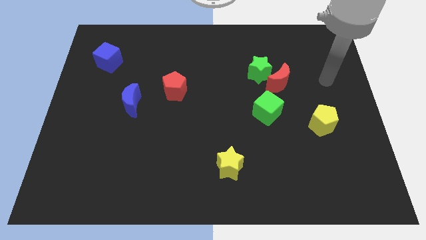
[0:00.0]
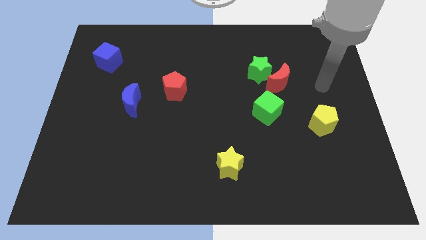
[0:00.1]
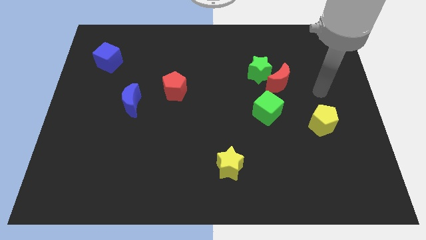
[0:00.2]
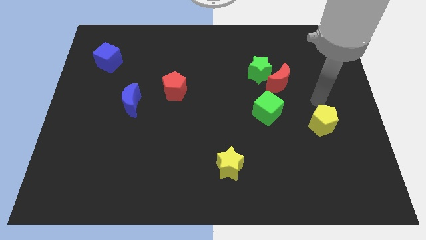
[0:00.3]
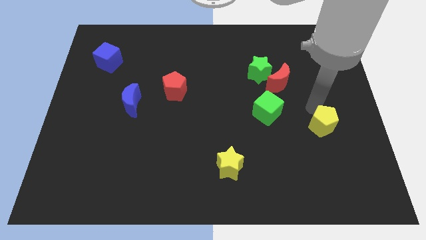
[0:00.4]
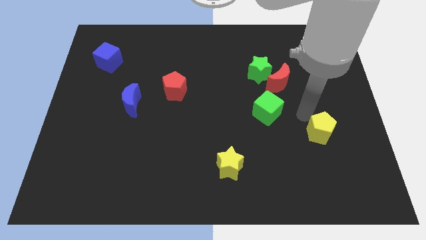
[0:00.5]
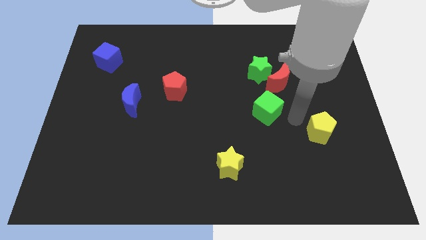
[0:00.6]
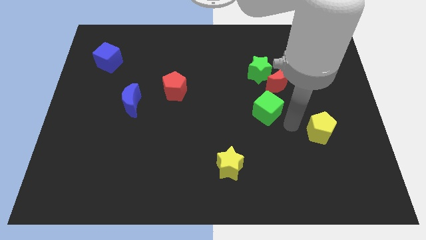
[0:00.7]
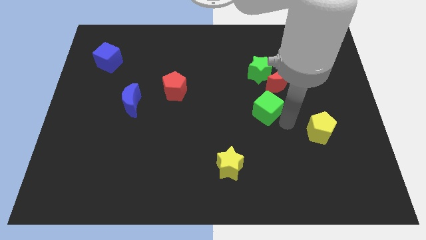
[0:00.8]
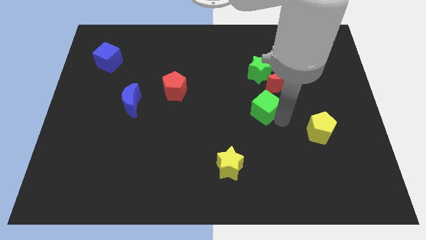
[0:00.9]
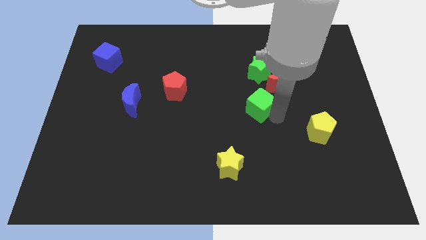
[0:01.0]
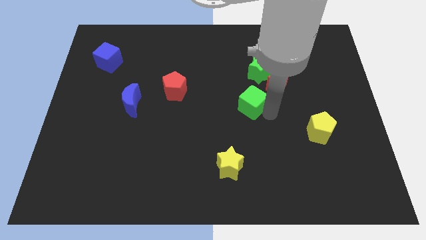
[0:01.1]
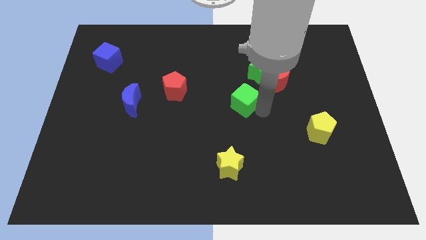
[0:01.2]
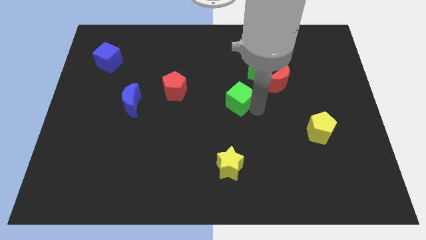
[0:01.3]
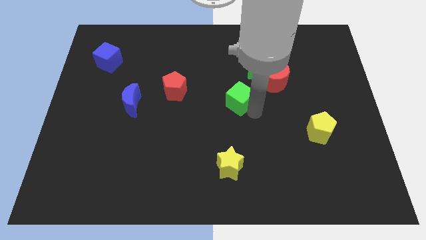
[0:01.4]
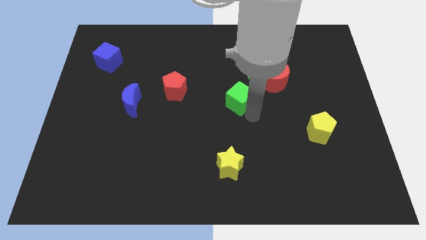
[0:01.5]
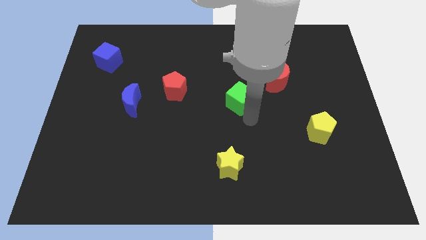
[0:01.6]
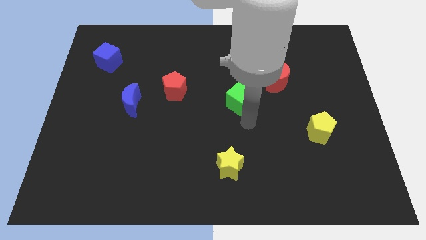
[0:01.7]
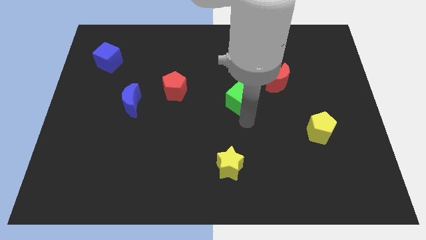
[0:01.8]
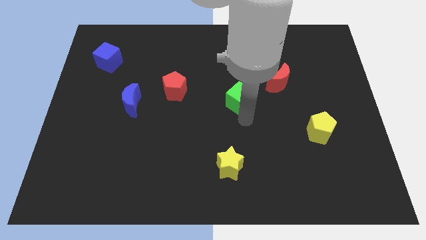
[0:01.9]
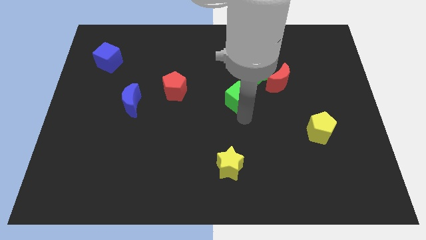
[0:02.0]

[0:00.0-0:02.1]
slightly slide the green cube diagonally upwards and left

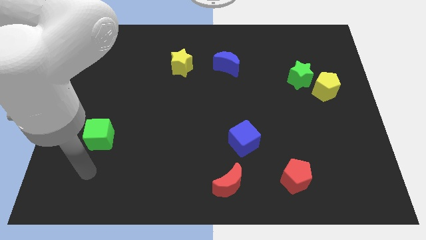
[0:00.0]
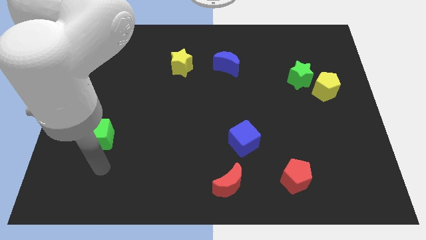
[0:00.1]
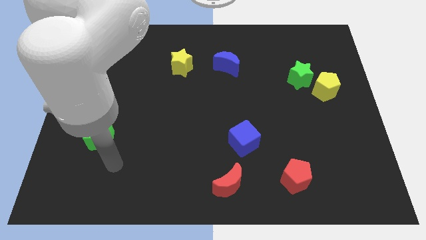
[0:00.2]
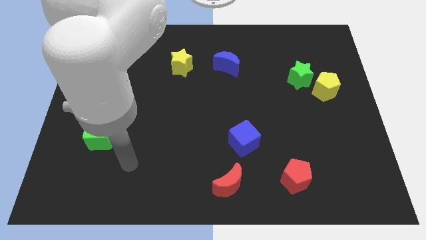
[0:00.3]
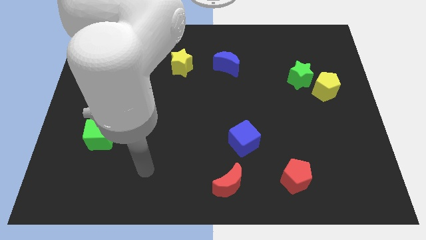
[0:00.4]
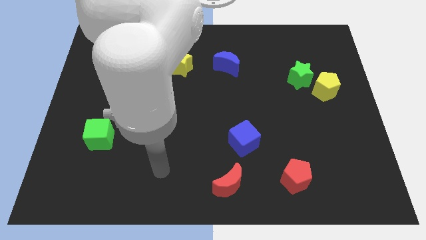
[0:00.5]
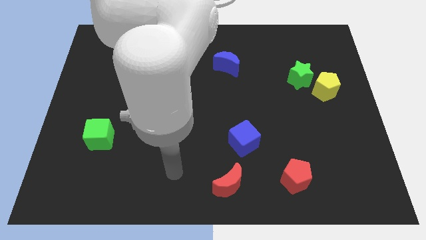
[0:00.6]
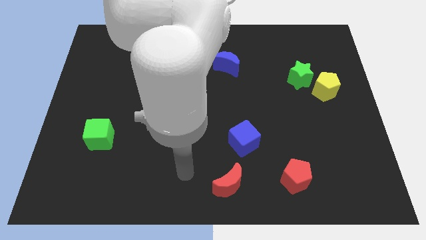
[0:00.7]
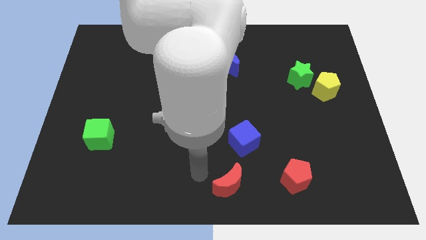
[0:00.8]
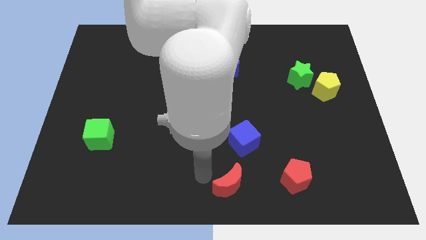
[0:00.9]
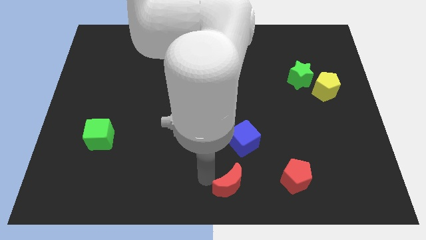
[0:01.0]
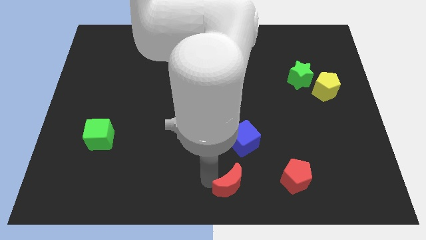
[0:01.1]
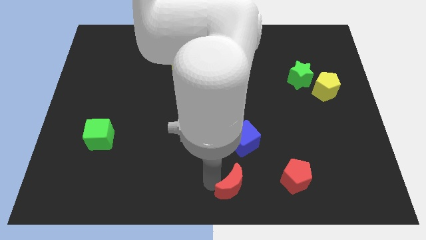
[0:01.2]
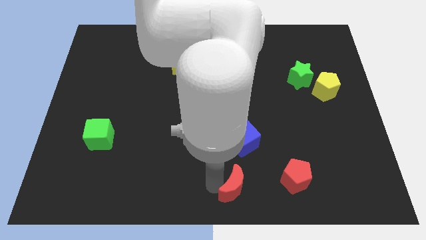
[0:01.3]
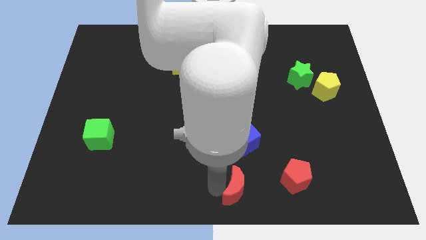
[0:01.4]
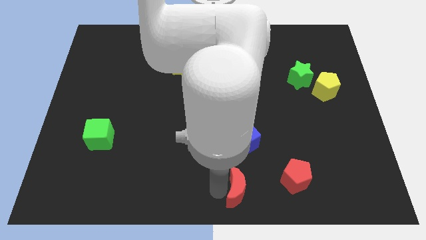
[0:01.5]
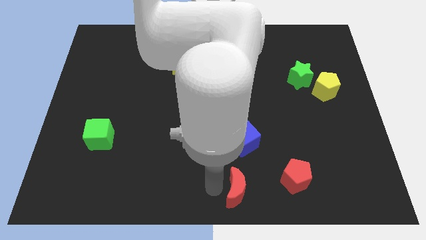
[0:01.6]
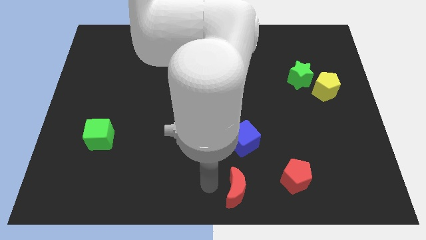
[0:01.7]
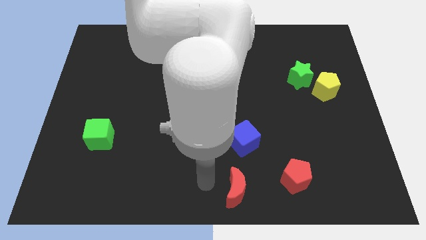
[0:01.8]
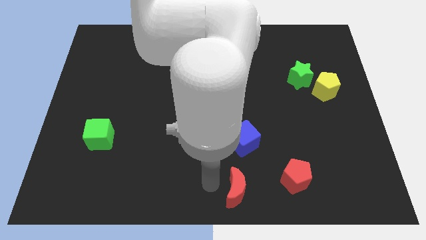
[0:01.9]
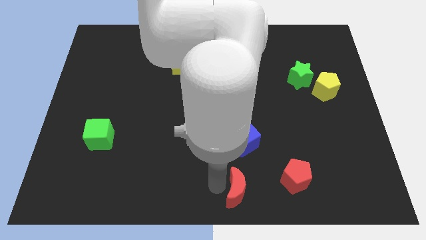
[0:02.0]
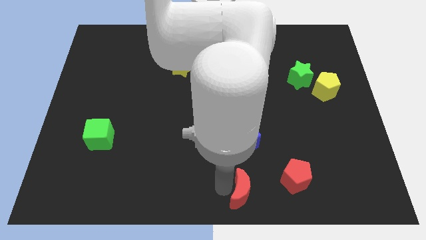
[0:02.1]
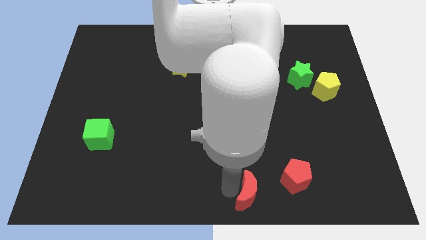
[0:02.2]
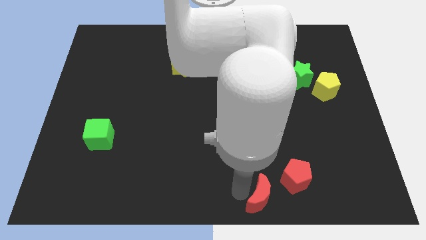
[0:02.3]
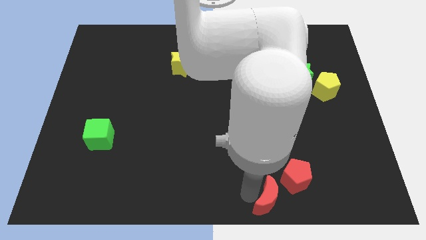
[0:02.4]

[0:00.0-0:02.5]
slightly move the red moon to the right

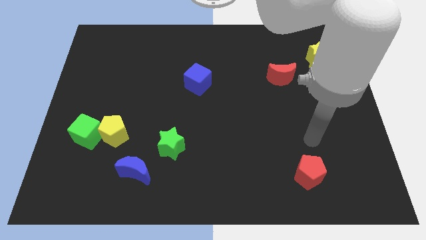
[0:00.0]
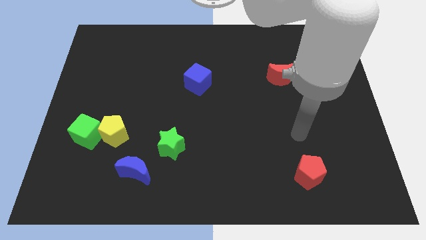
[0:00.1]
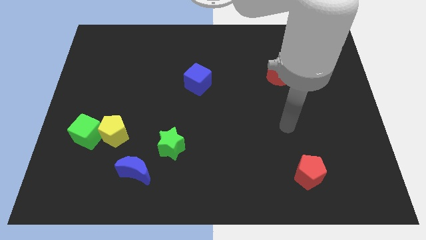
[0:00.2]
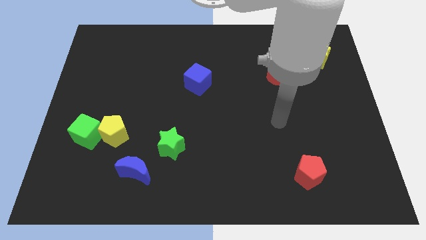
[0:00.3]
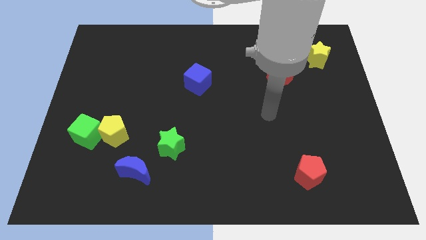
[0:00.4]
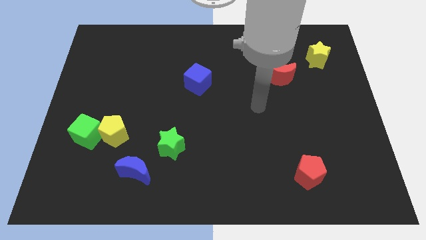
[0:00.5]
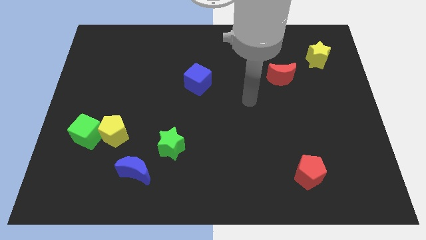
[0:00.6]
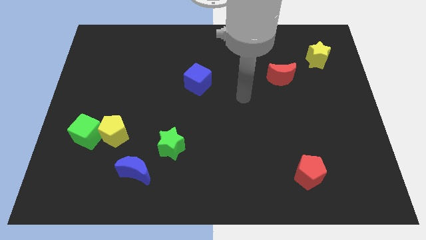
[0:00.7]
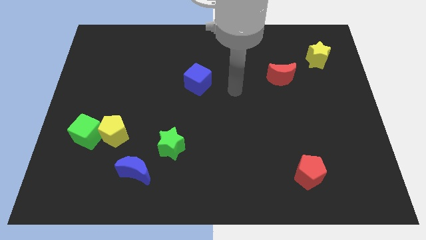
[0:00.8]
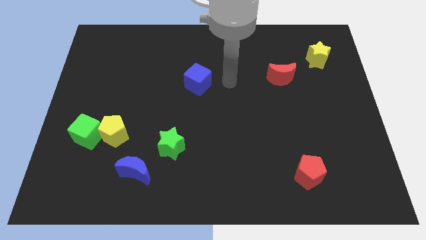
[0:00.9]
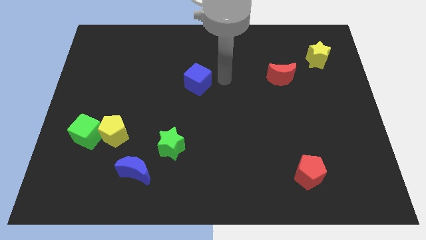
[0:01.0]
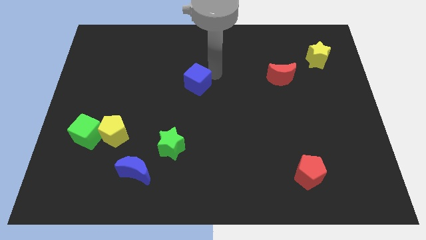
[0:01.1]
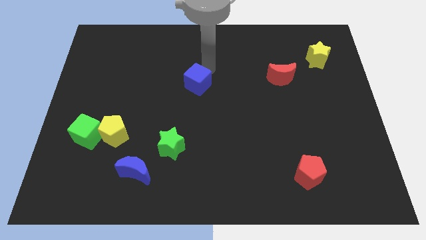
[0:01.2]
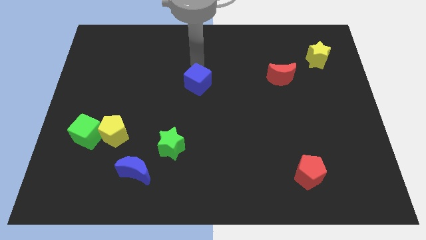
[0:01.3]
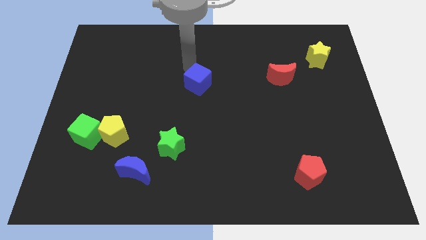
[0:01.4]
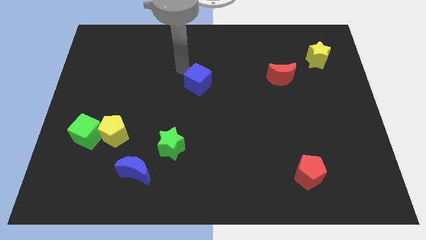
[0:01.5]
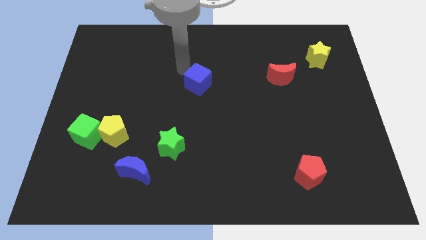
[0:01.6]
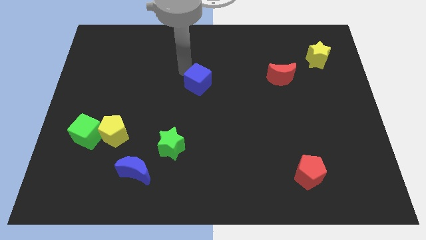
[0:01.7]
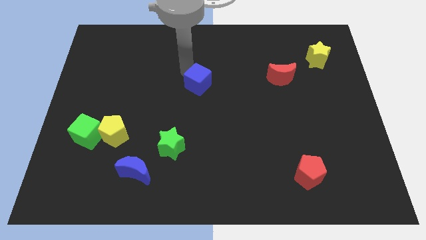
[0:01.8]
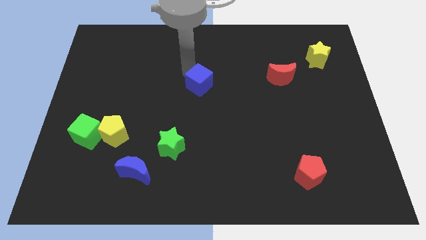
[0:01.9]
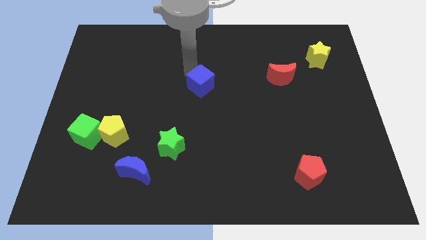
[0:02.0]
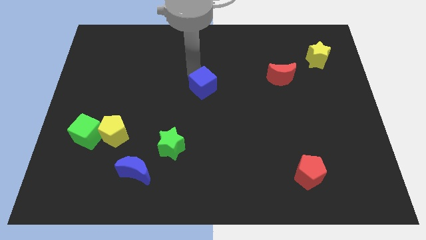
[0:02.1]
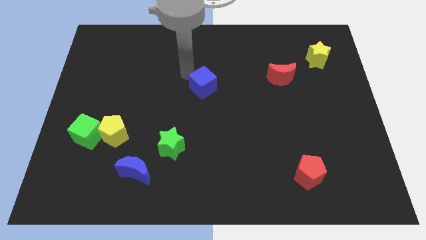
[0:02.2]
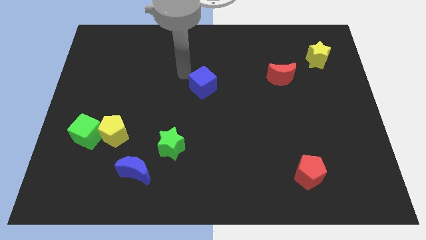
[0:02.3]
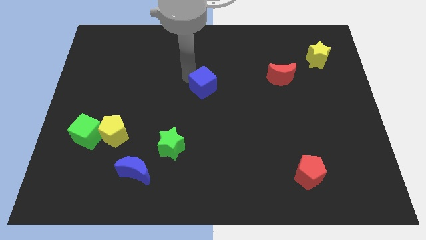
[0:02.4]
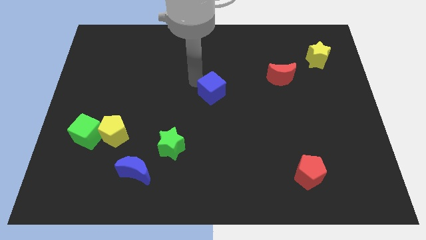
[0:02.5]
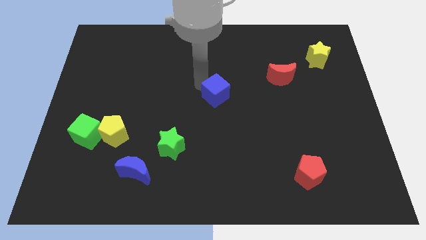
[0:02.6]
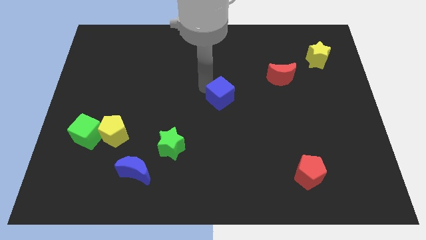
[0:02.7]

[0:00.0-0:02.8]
slightly move the blue cube down and right

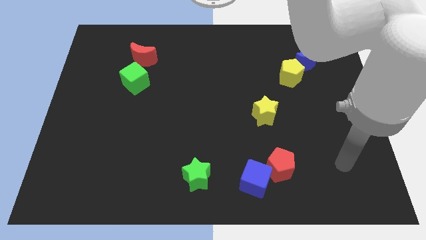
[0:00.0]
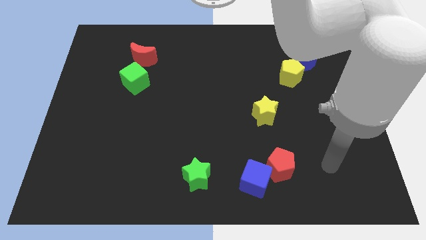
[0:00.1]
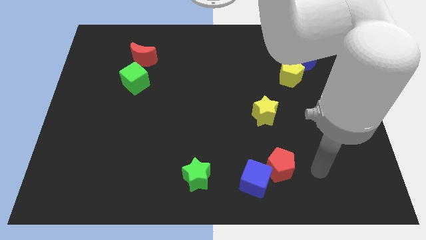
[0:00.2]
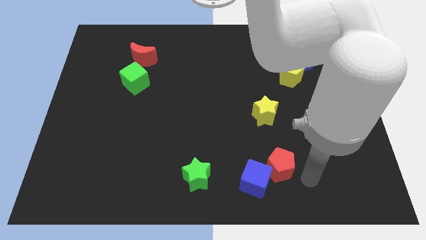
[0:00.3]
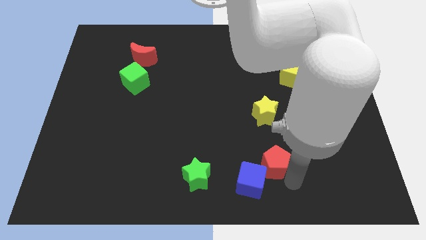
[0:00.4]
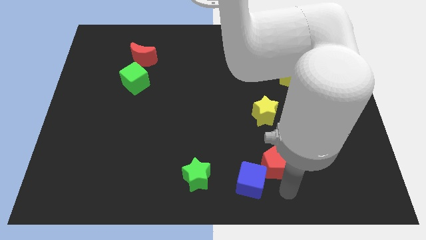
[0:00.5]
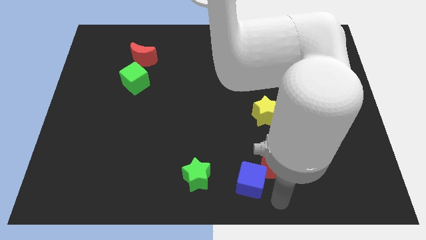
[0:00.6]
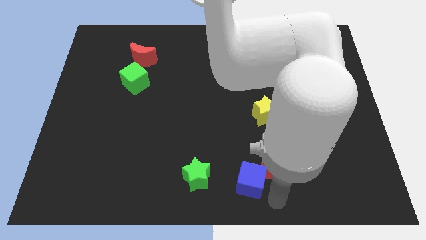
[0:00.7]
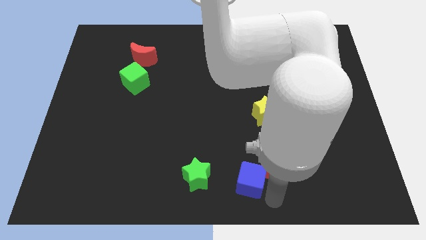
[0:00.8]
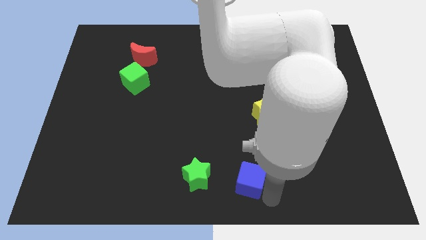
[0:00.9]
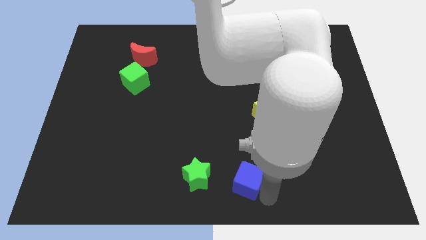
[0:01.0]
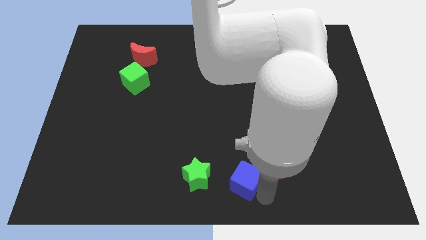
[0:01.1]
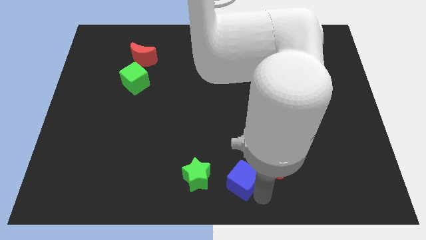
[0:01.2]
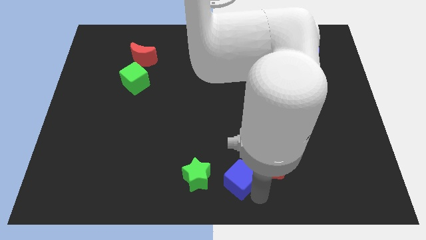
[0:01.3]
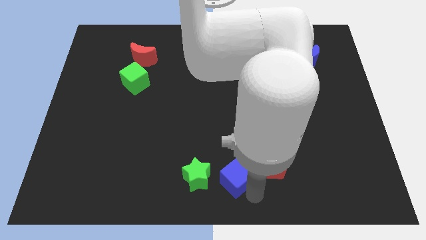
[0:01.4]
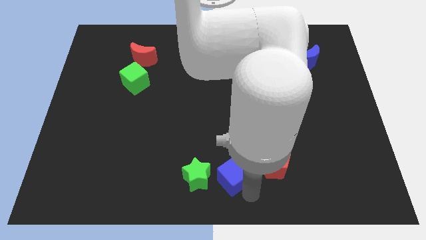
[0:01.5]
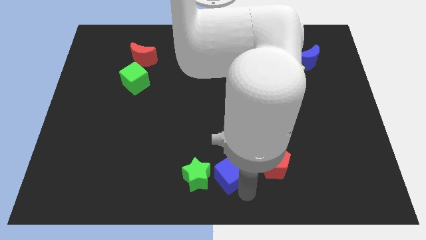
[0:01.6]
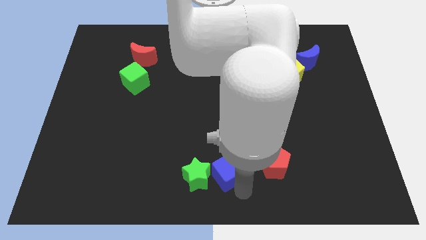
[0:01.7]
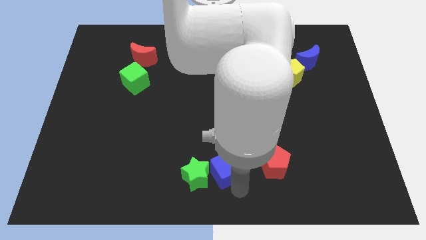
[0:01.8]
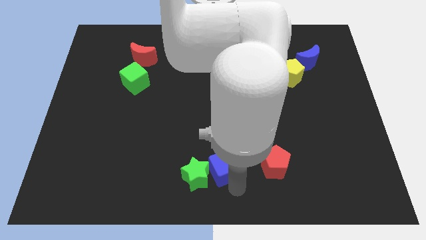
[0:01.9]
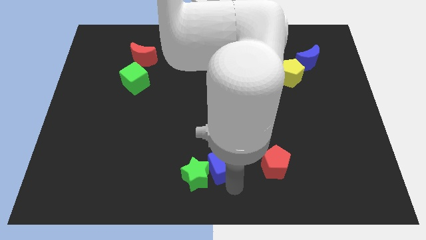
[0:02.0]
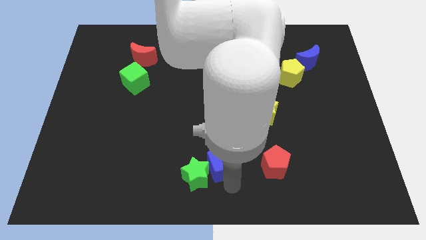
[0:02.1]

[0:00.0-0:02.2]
push the blue cube slightly up and left
